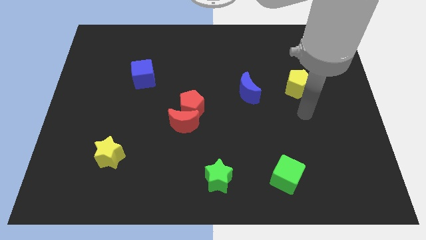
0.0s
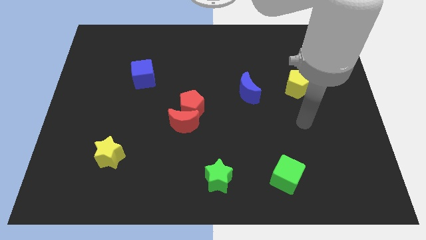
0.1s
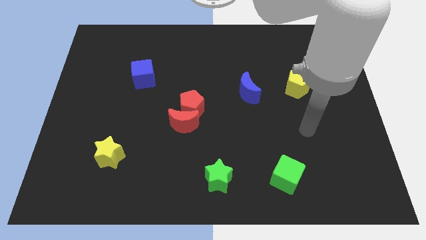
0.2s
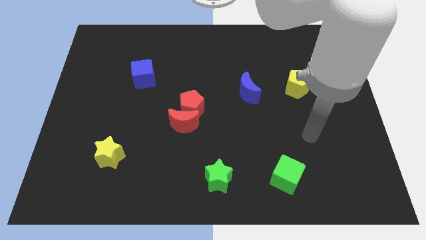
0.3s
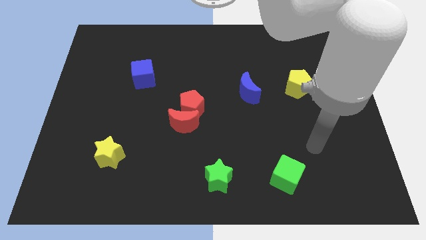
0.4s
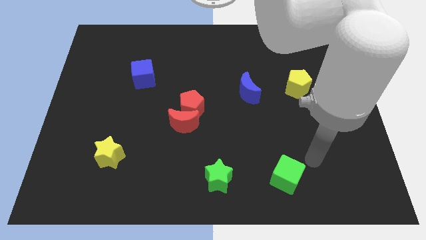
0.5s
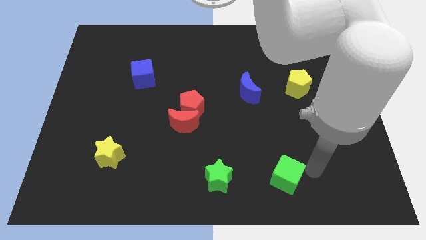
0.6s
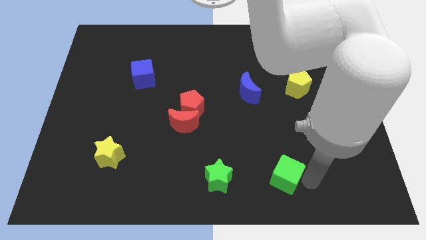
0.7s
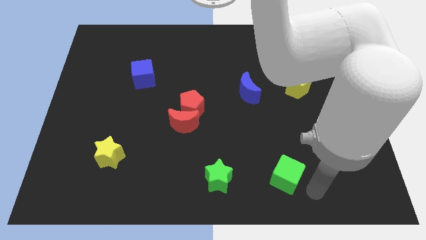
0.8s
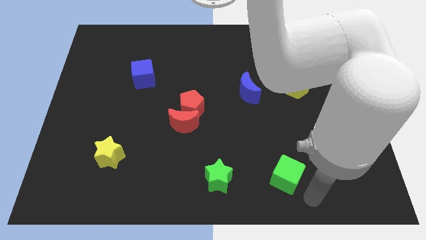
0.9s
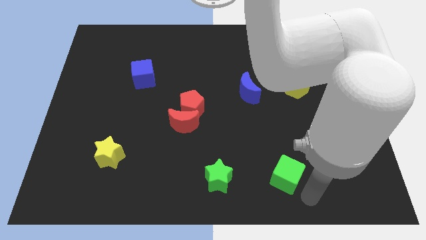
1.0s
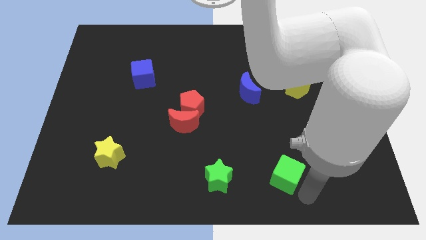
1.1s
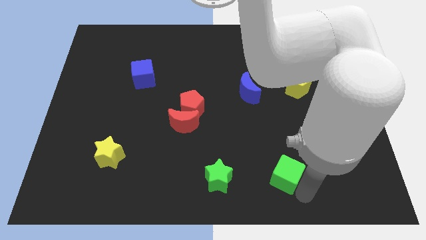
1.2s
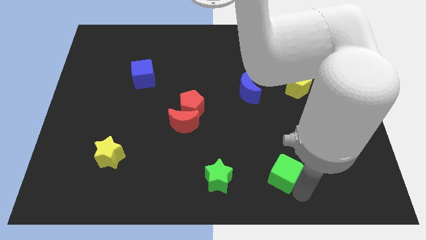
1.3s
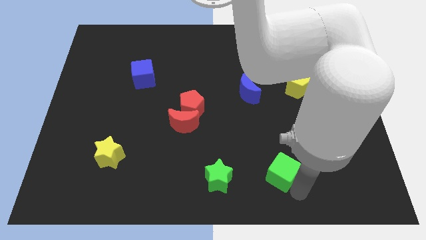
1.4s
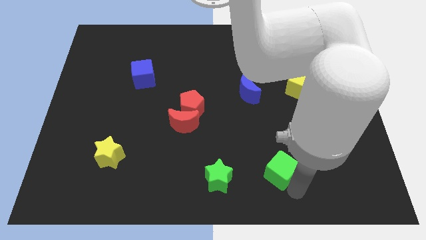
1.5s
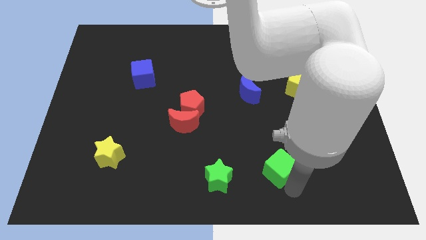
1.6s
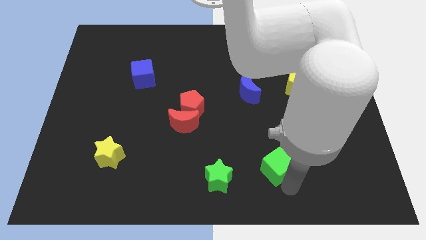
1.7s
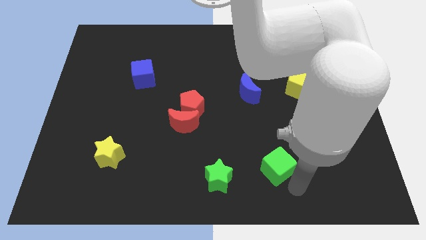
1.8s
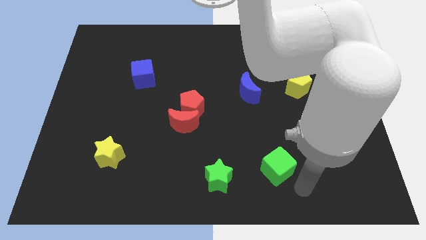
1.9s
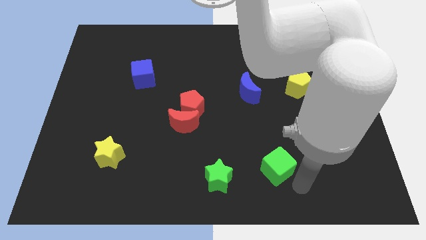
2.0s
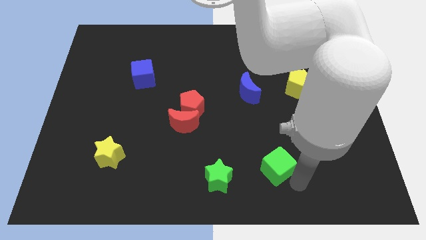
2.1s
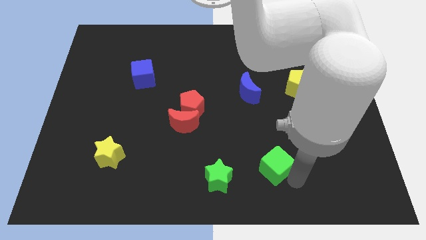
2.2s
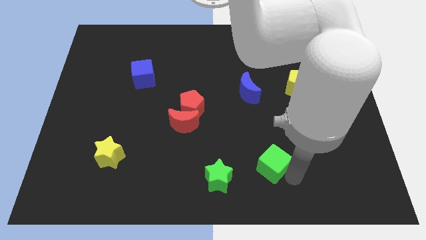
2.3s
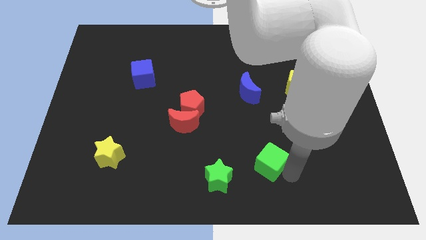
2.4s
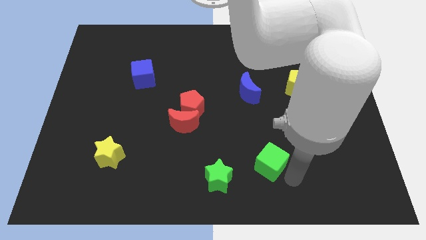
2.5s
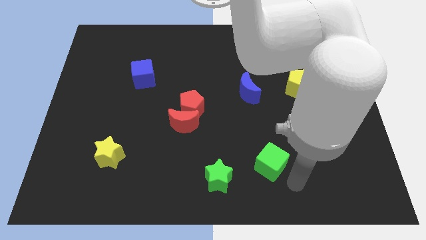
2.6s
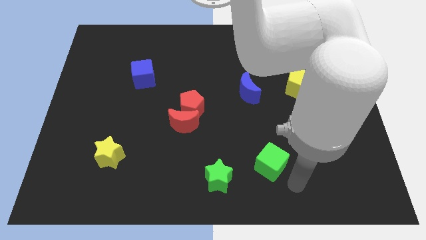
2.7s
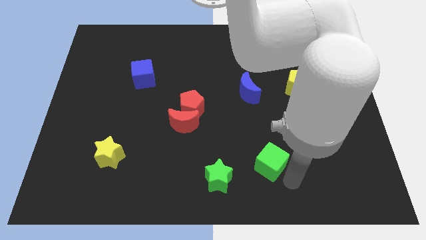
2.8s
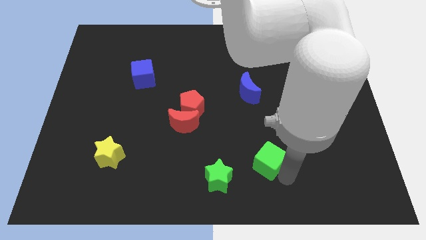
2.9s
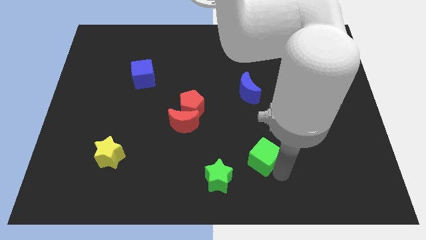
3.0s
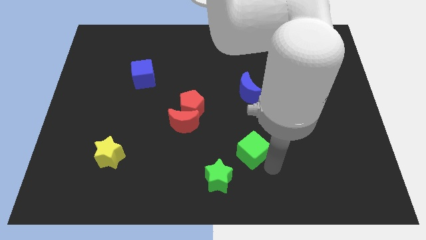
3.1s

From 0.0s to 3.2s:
slightly push the green cube up and then to the left

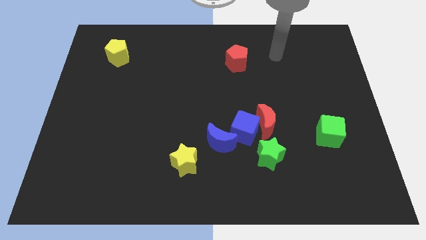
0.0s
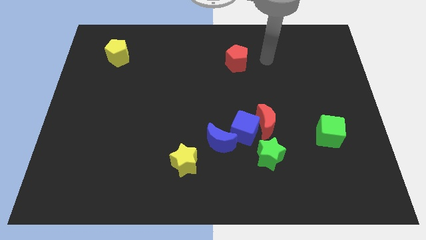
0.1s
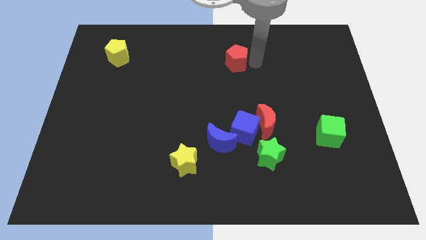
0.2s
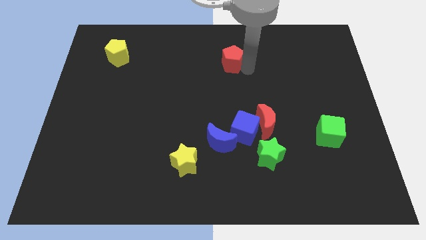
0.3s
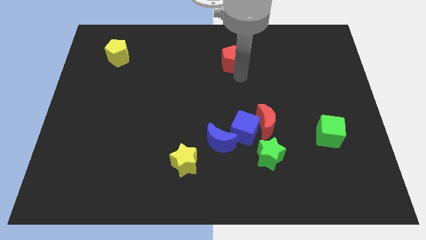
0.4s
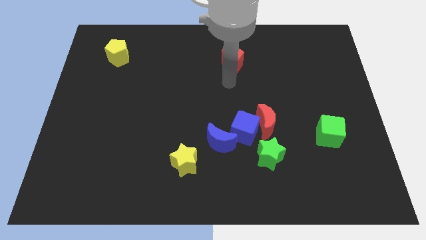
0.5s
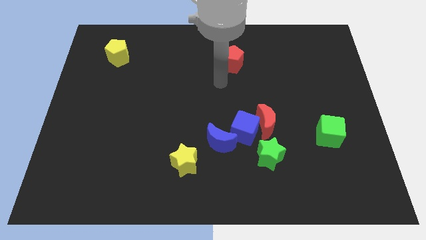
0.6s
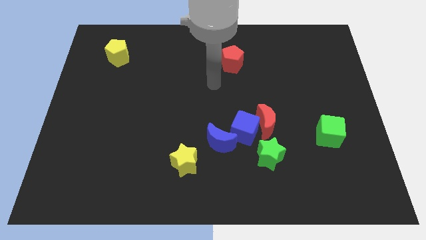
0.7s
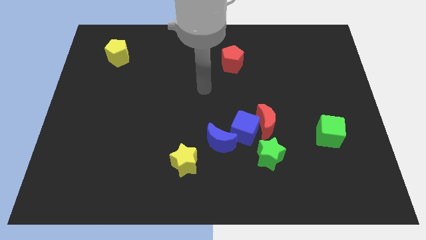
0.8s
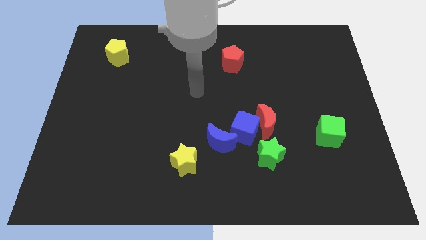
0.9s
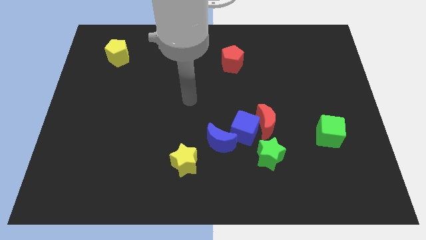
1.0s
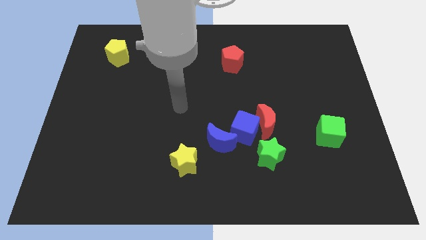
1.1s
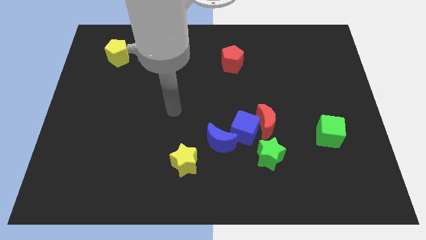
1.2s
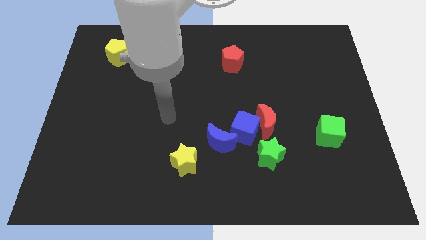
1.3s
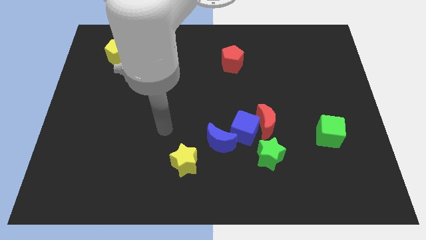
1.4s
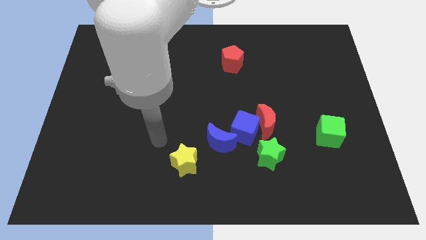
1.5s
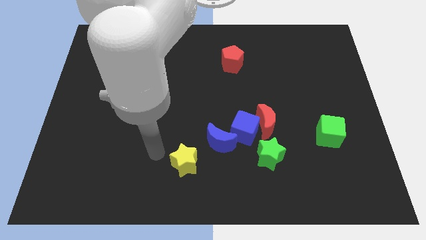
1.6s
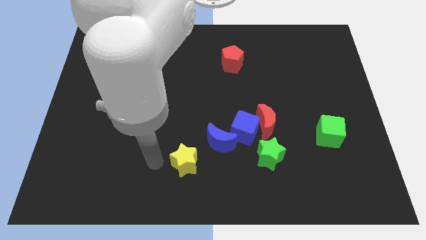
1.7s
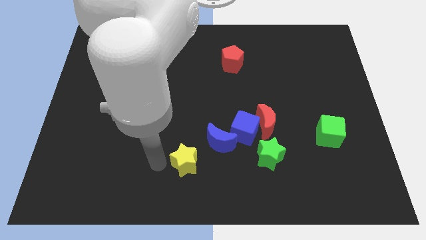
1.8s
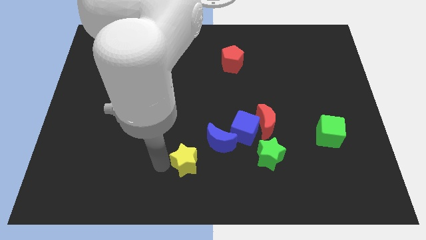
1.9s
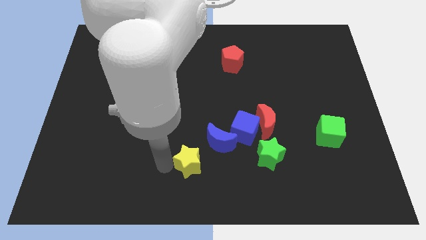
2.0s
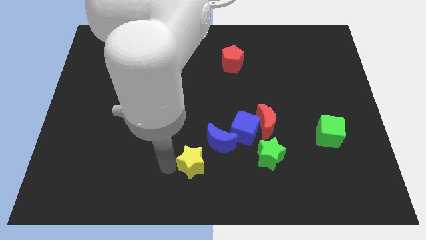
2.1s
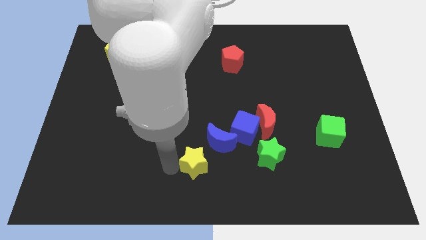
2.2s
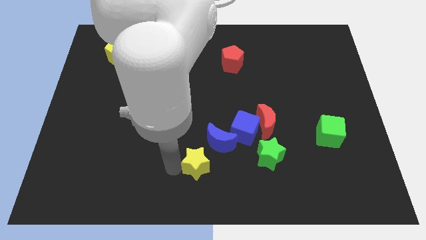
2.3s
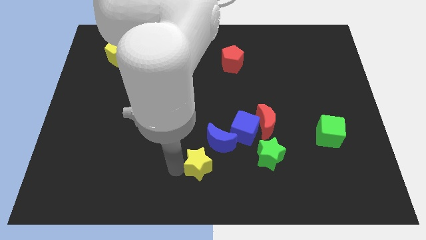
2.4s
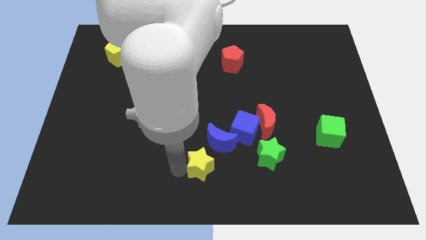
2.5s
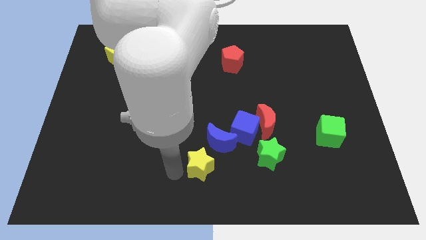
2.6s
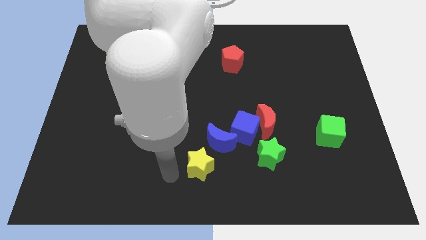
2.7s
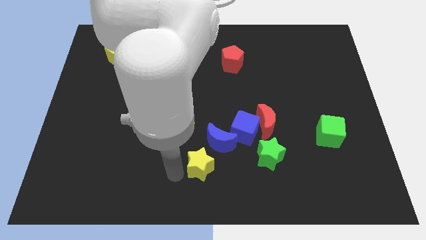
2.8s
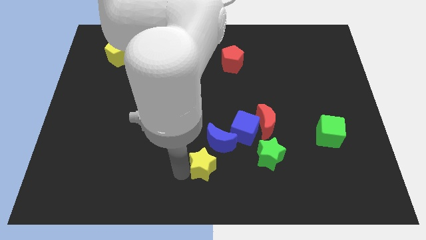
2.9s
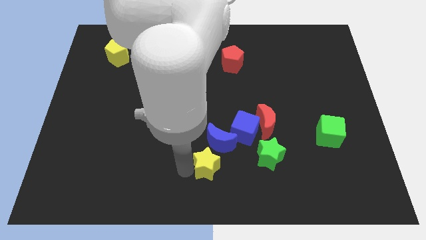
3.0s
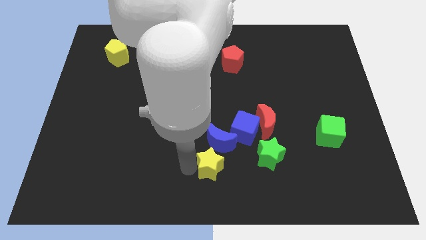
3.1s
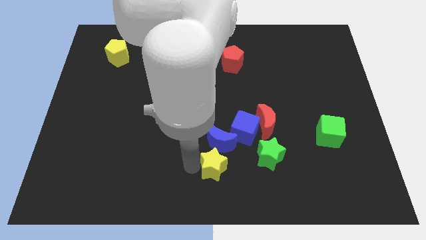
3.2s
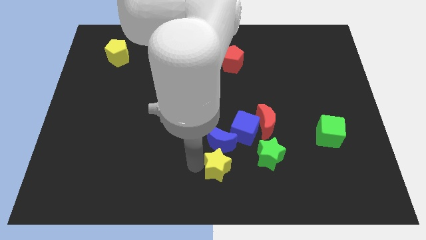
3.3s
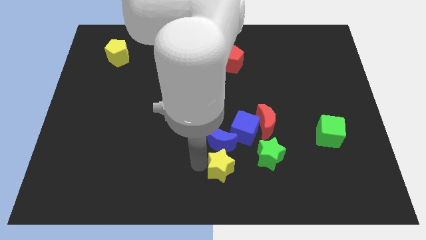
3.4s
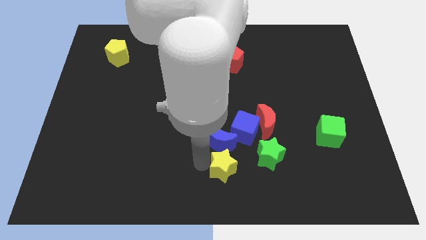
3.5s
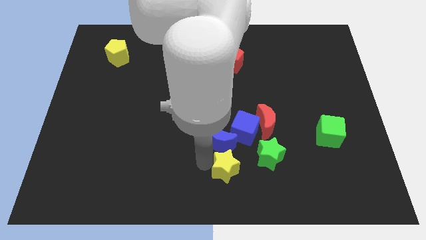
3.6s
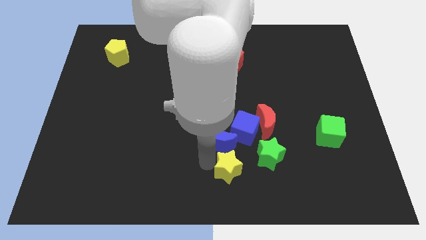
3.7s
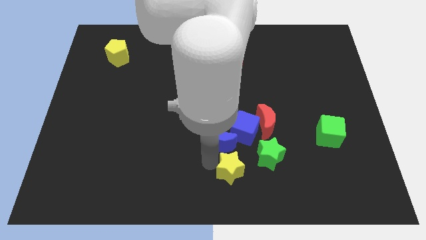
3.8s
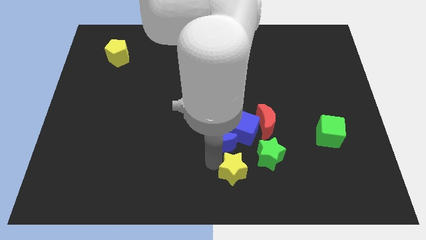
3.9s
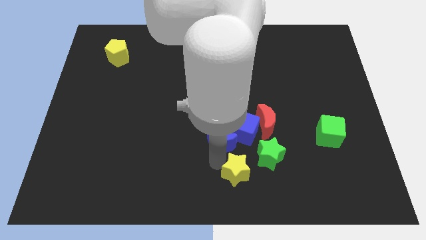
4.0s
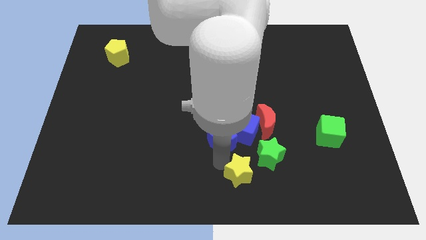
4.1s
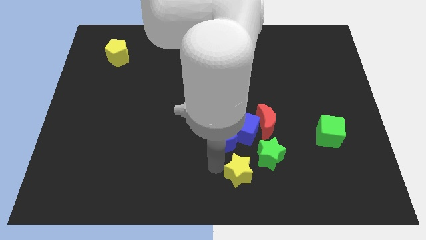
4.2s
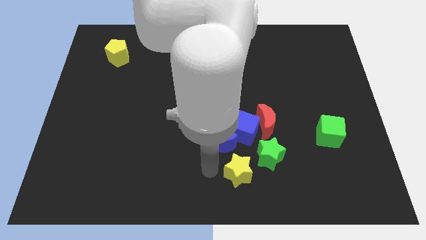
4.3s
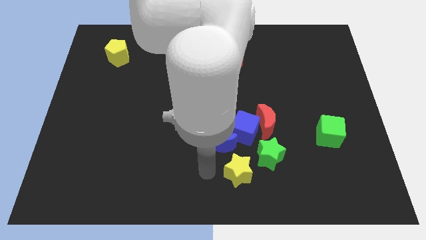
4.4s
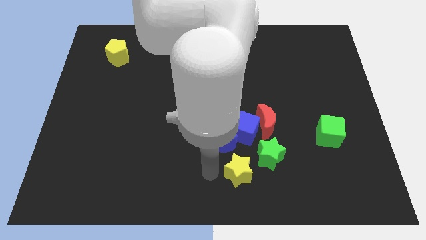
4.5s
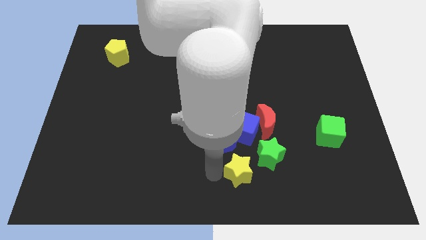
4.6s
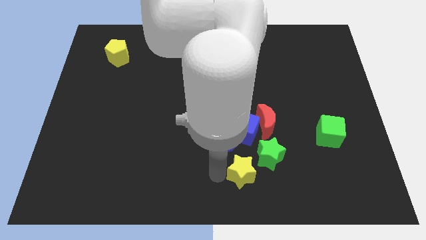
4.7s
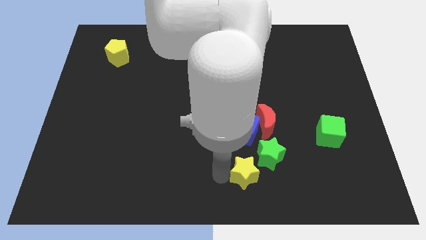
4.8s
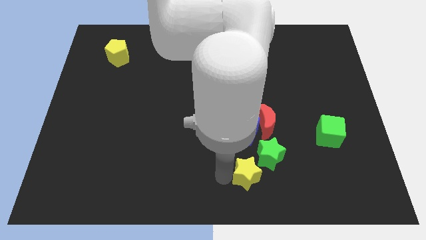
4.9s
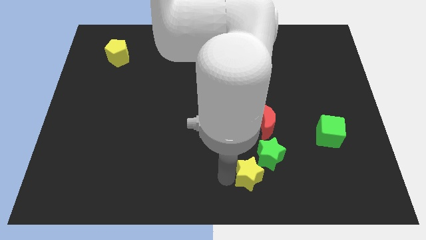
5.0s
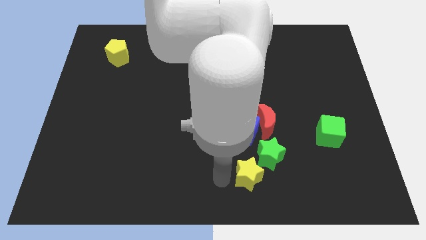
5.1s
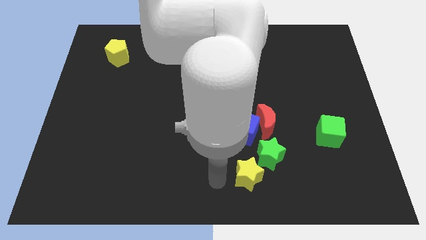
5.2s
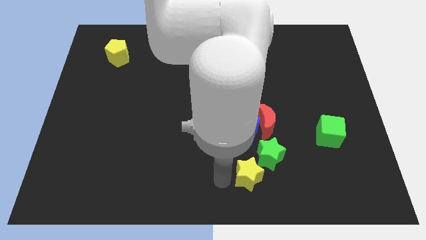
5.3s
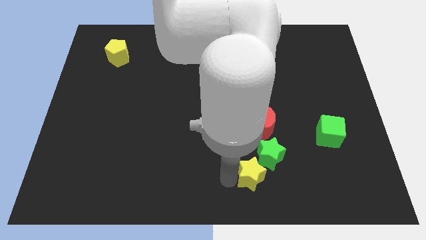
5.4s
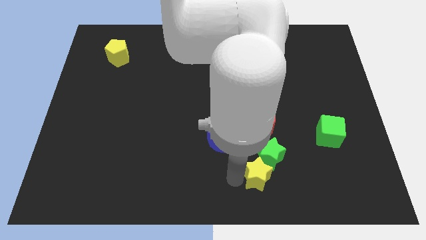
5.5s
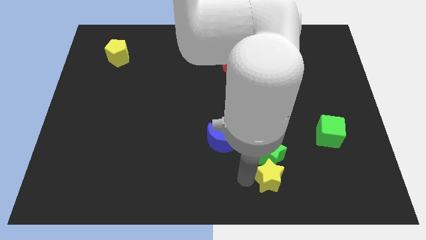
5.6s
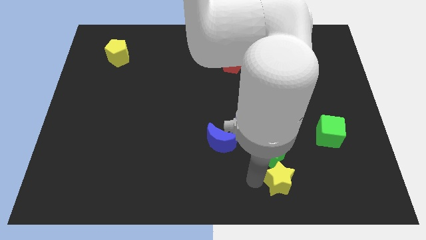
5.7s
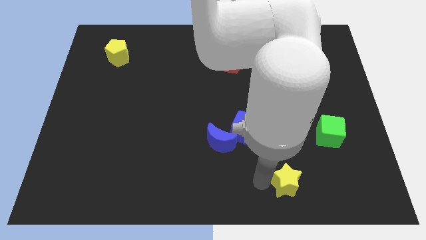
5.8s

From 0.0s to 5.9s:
slide the yellow star to the right
